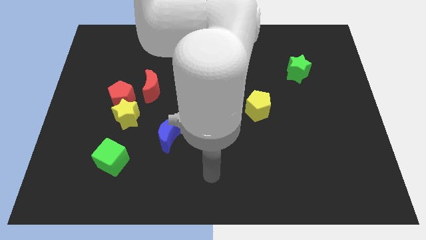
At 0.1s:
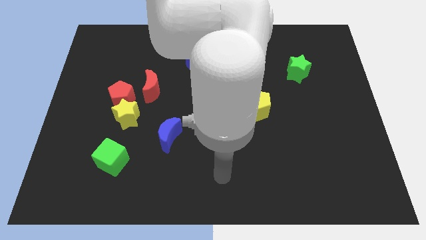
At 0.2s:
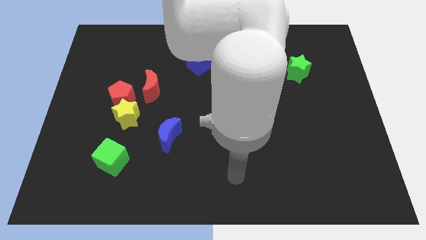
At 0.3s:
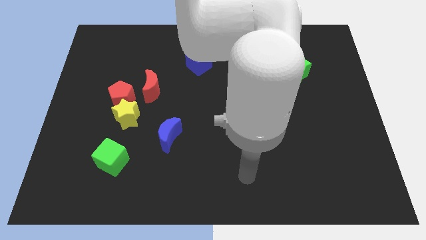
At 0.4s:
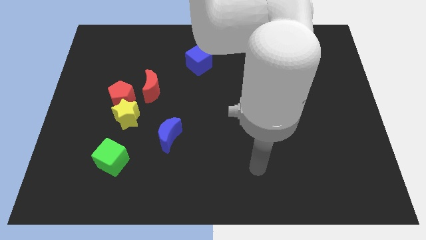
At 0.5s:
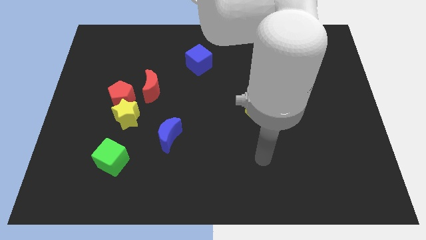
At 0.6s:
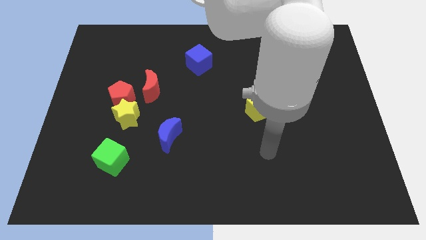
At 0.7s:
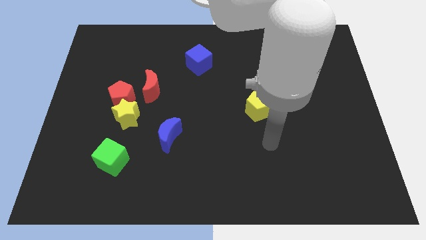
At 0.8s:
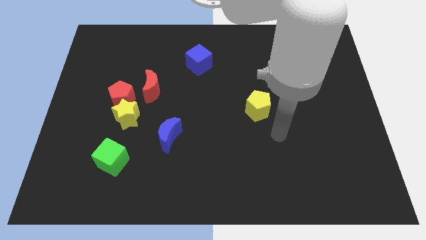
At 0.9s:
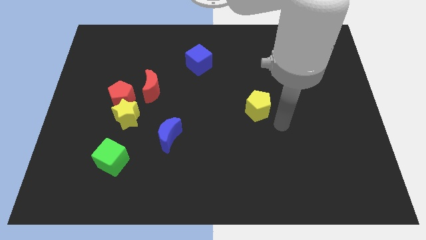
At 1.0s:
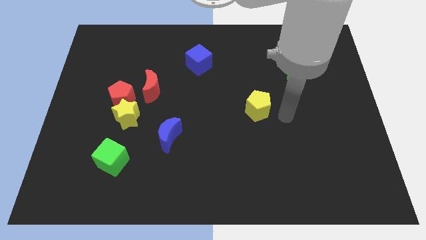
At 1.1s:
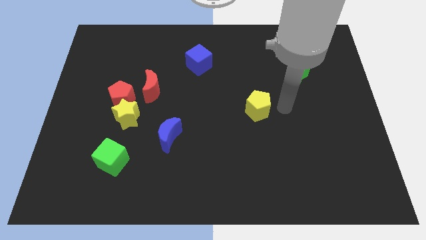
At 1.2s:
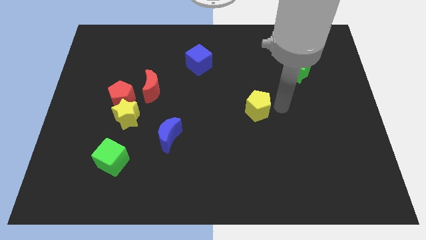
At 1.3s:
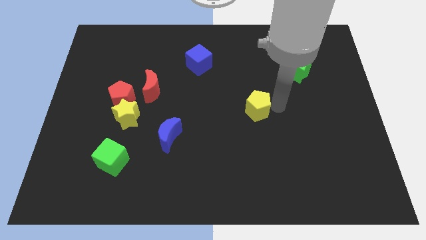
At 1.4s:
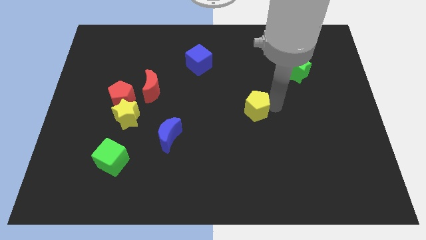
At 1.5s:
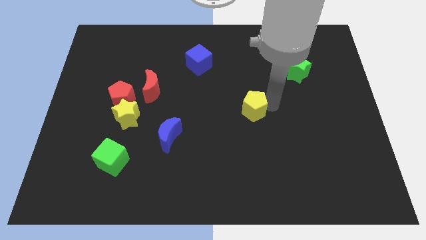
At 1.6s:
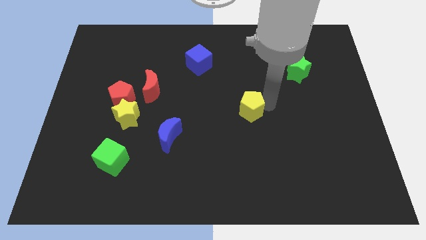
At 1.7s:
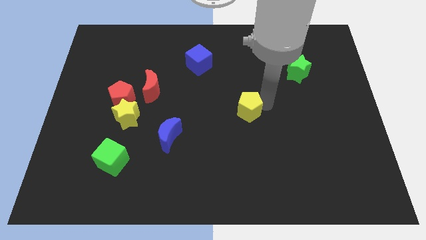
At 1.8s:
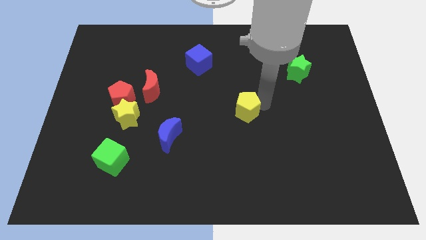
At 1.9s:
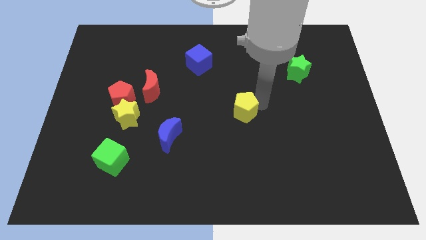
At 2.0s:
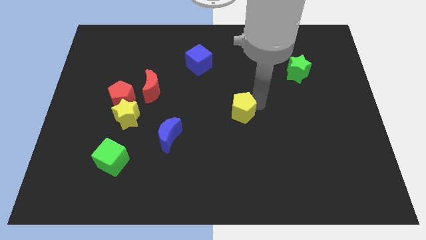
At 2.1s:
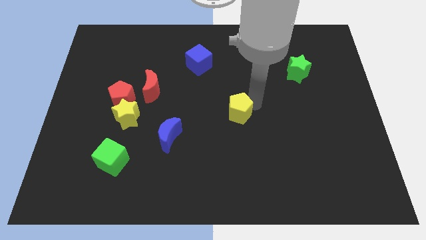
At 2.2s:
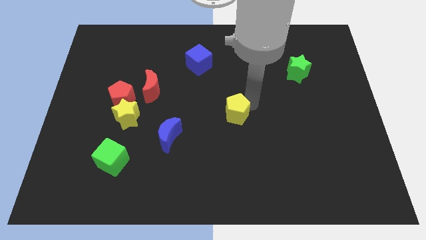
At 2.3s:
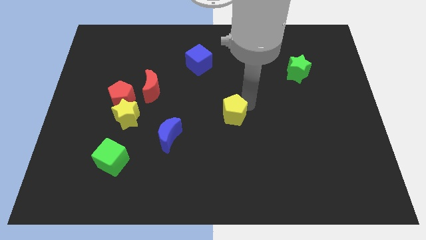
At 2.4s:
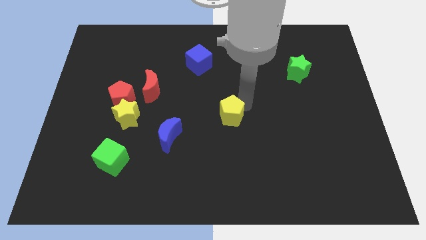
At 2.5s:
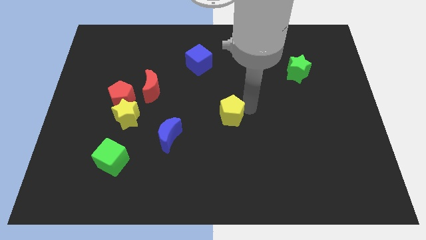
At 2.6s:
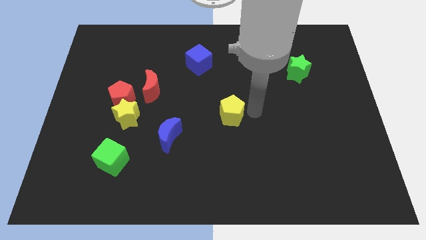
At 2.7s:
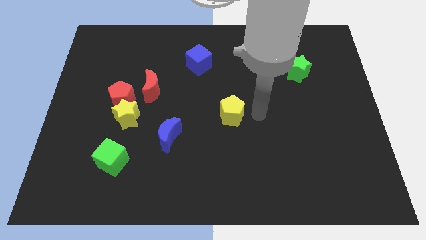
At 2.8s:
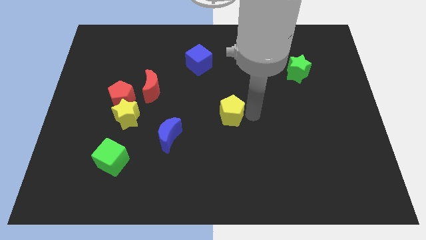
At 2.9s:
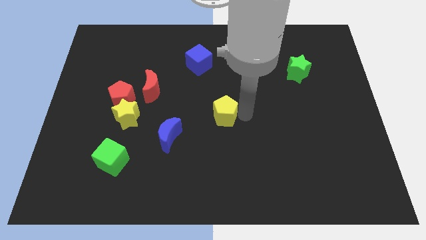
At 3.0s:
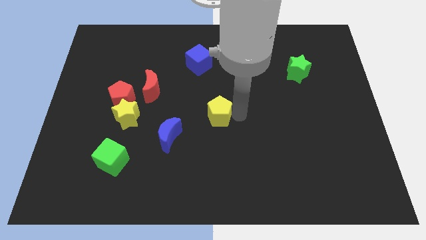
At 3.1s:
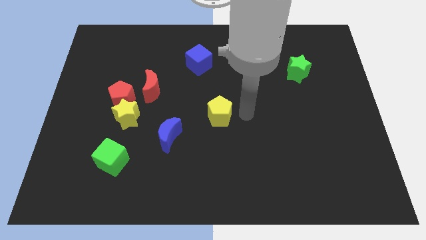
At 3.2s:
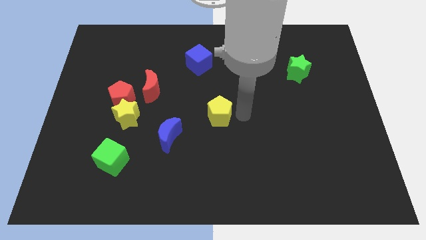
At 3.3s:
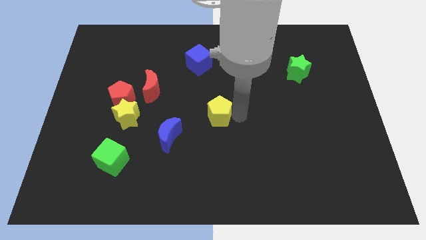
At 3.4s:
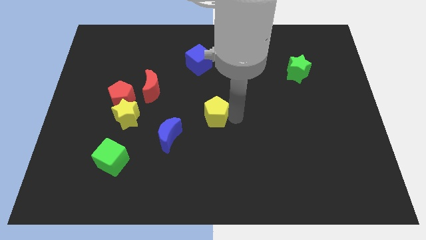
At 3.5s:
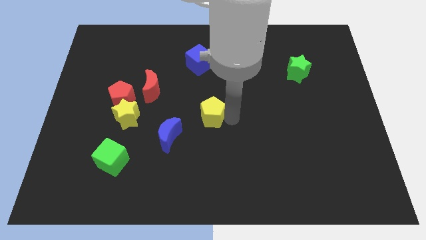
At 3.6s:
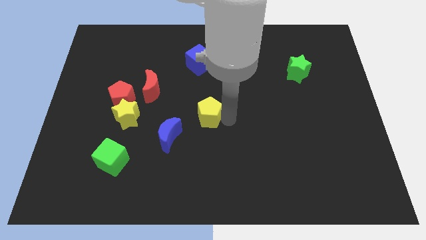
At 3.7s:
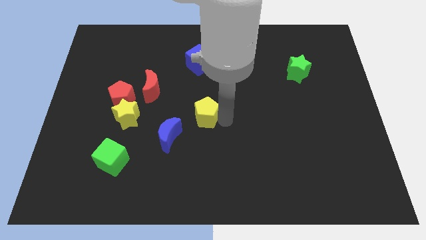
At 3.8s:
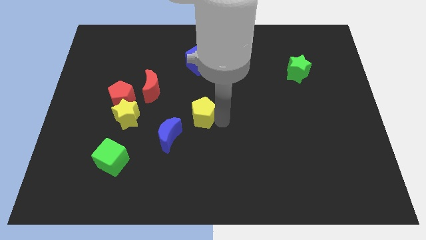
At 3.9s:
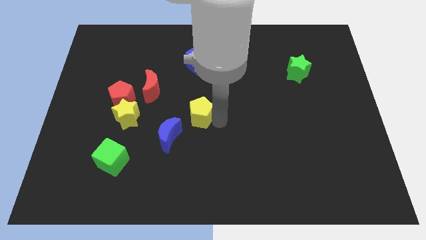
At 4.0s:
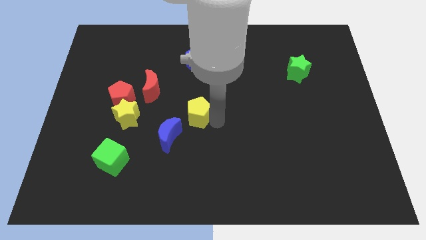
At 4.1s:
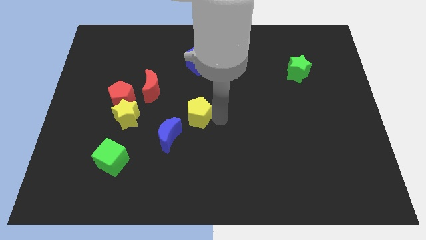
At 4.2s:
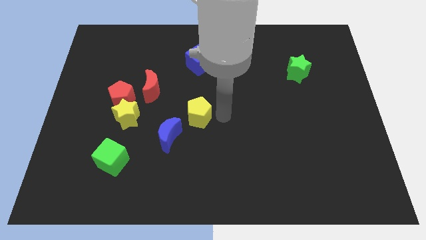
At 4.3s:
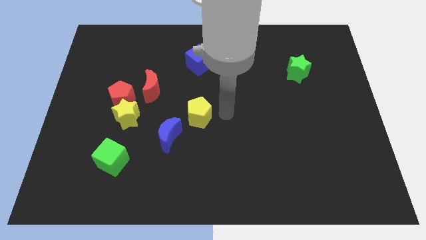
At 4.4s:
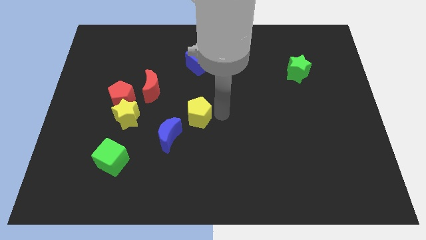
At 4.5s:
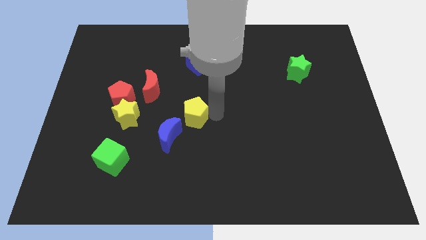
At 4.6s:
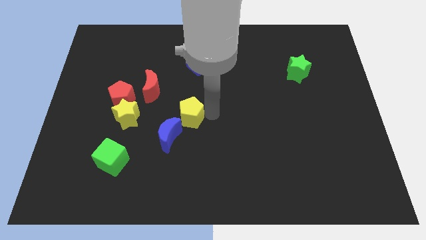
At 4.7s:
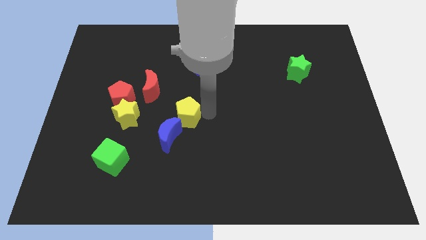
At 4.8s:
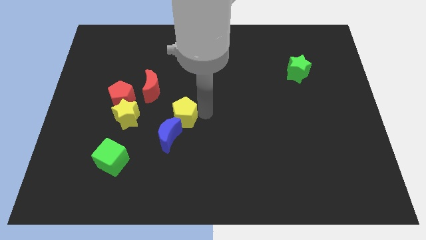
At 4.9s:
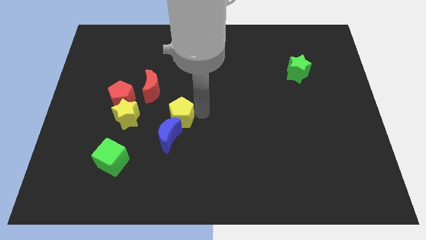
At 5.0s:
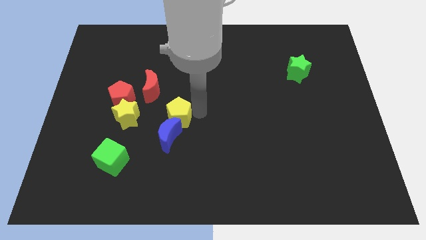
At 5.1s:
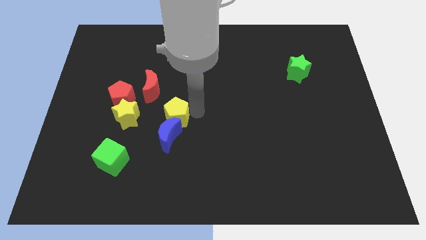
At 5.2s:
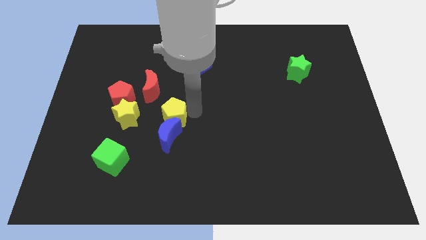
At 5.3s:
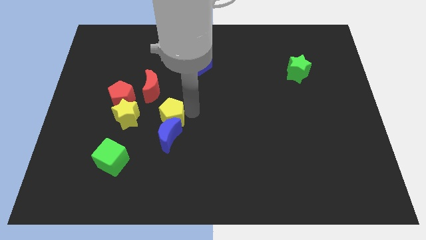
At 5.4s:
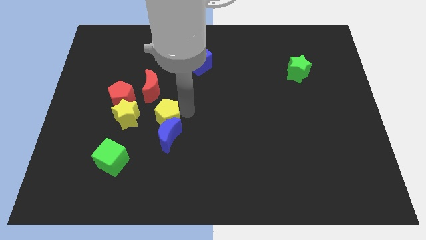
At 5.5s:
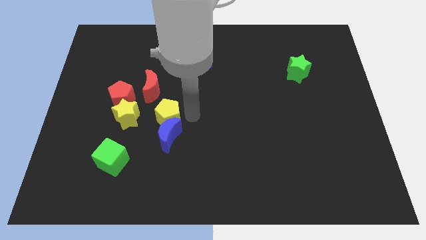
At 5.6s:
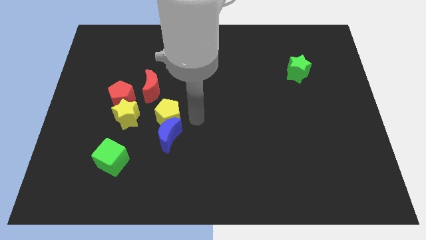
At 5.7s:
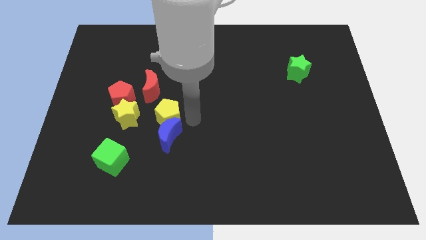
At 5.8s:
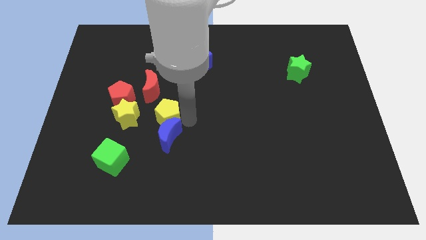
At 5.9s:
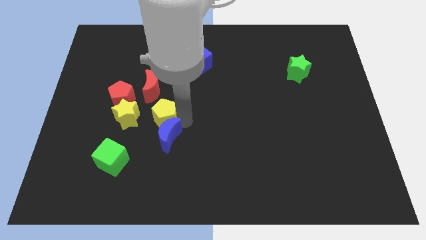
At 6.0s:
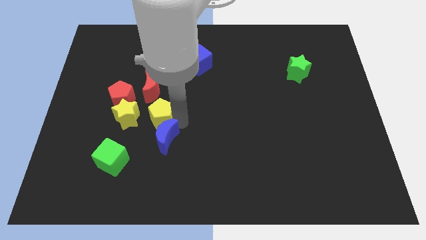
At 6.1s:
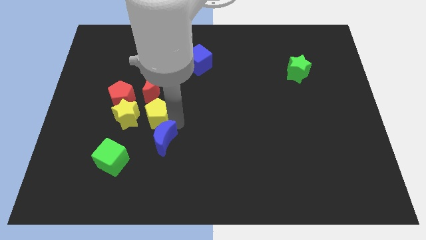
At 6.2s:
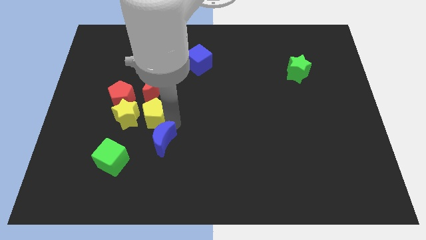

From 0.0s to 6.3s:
push the yellow pentagon close to the yellow star

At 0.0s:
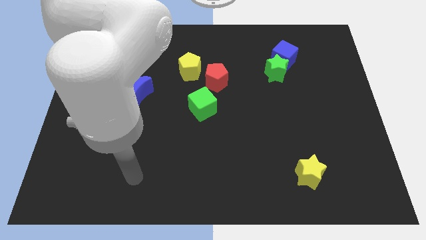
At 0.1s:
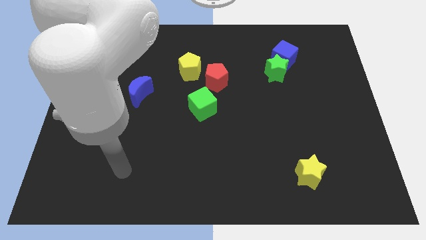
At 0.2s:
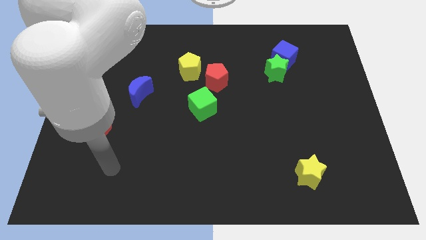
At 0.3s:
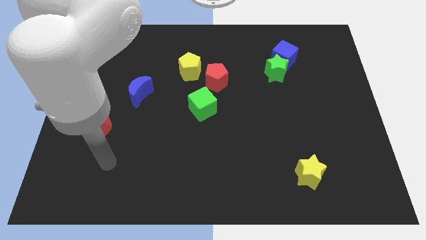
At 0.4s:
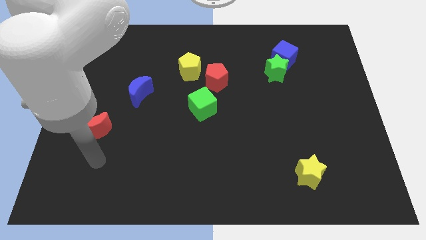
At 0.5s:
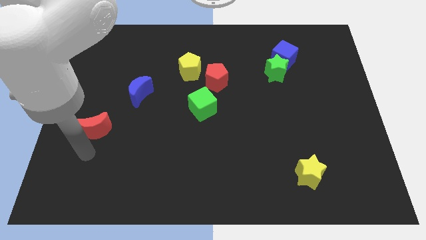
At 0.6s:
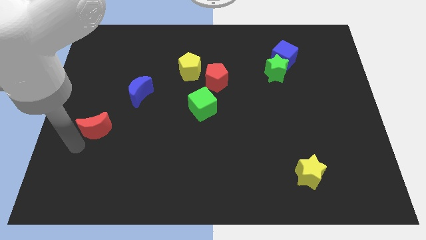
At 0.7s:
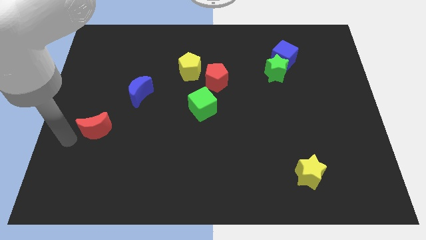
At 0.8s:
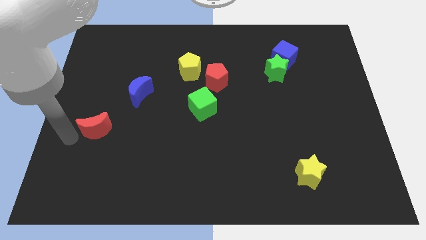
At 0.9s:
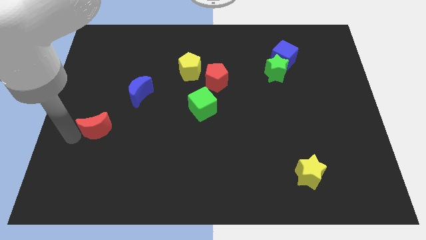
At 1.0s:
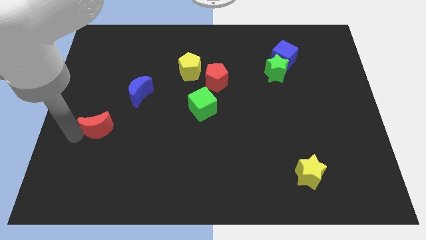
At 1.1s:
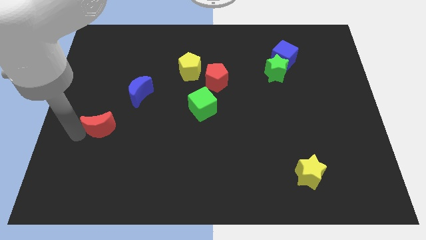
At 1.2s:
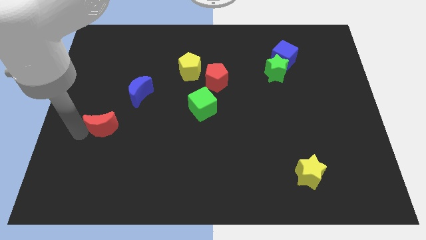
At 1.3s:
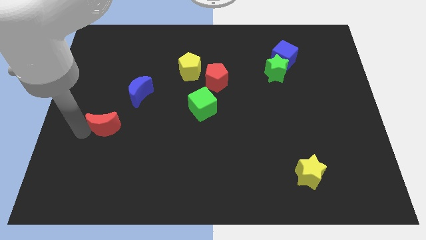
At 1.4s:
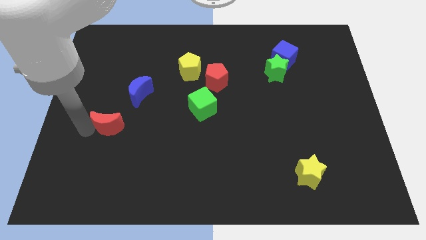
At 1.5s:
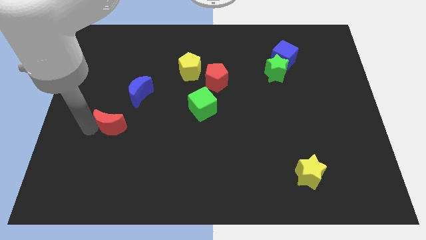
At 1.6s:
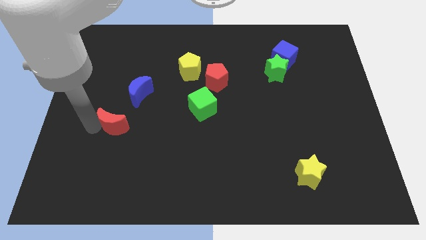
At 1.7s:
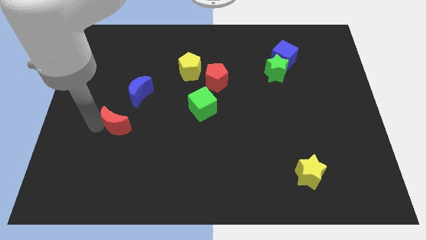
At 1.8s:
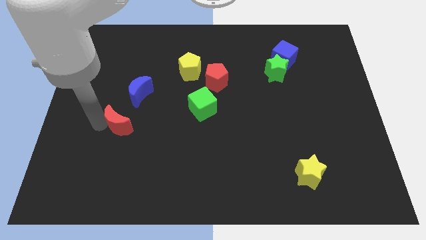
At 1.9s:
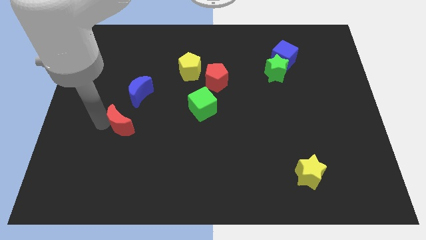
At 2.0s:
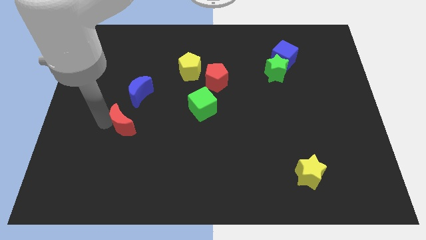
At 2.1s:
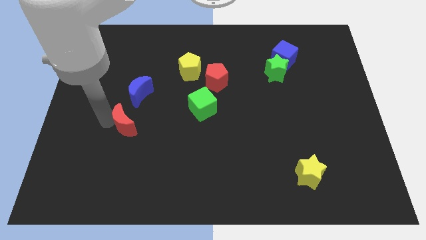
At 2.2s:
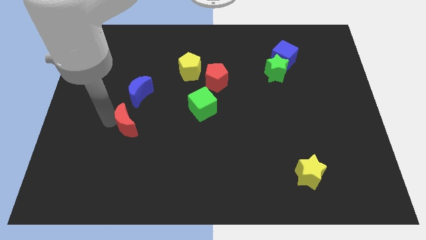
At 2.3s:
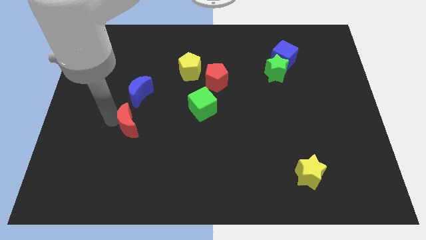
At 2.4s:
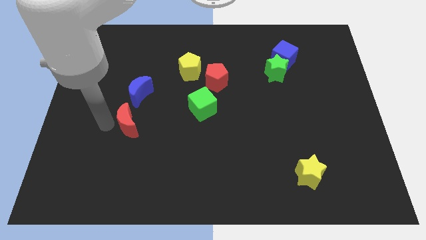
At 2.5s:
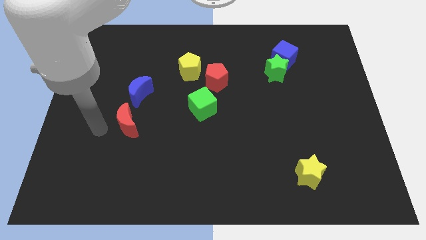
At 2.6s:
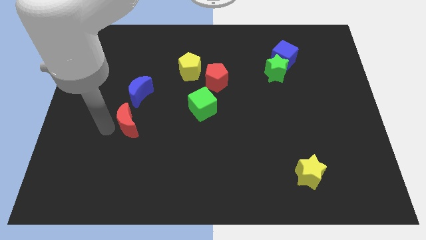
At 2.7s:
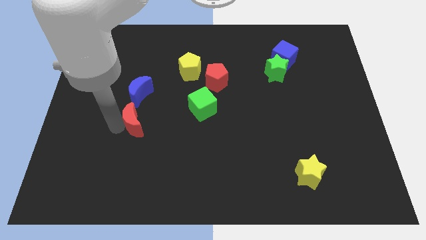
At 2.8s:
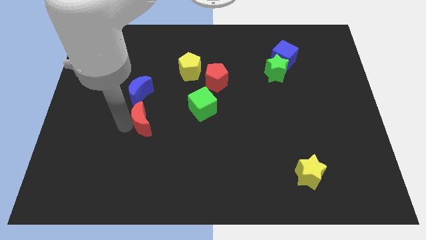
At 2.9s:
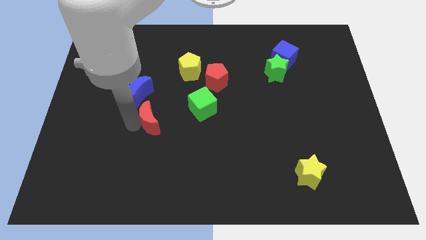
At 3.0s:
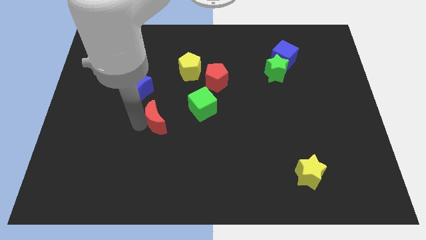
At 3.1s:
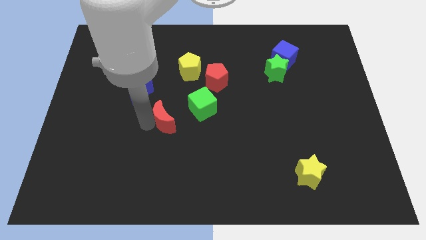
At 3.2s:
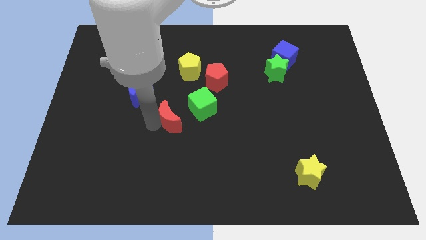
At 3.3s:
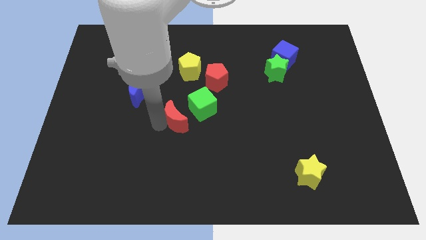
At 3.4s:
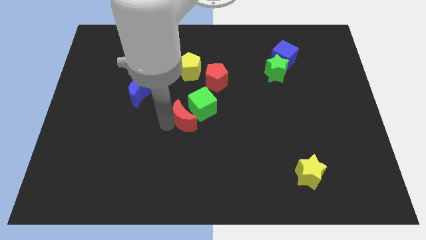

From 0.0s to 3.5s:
move the red moon towards the green cube
